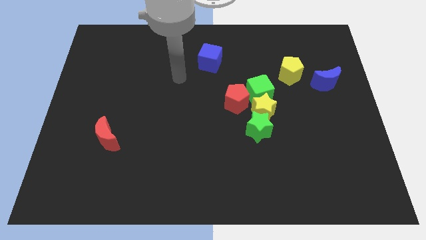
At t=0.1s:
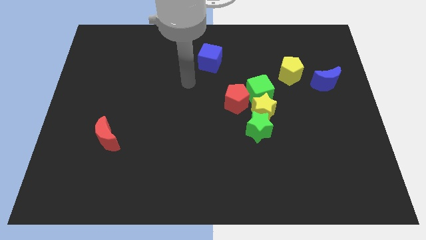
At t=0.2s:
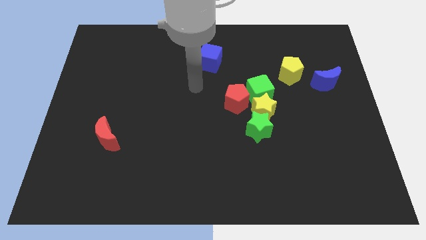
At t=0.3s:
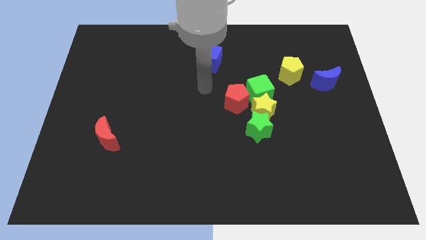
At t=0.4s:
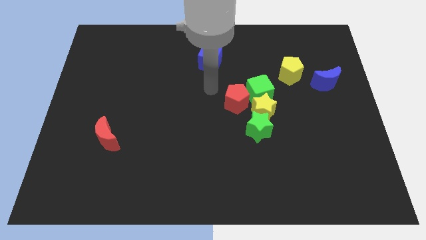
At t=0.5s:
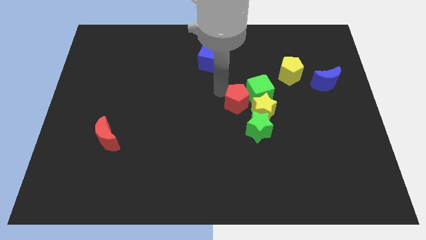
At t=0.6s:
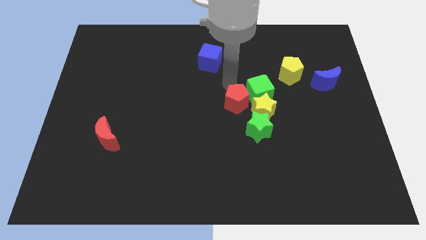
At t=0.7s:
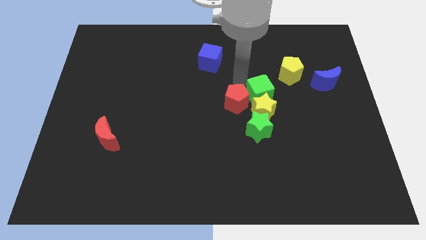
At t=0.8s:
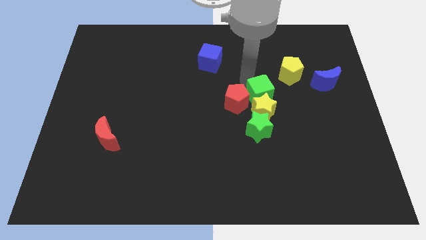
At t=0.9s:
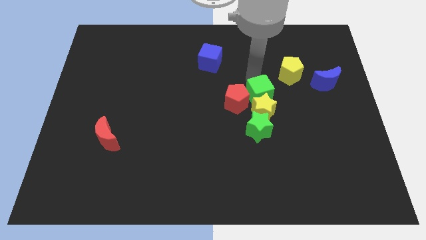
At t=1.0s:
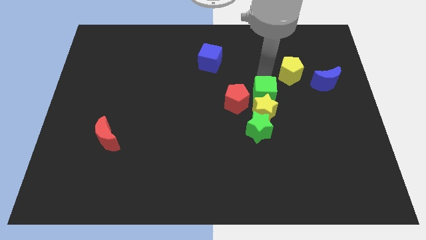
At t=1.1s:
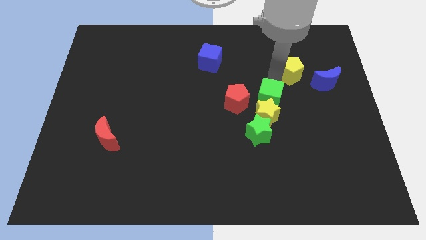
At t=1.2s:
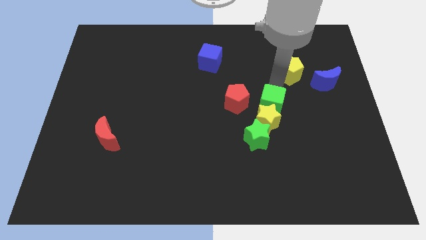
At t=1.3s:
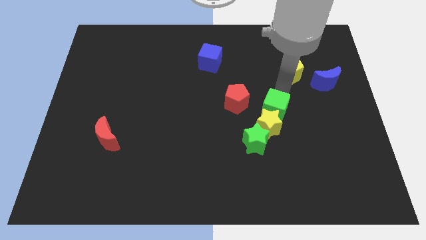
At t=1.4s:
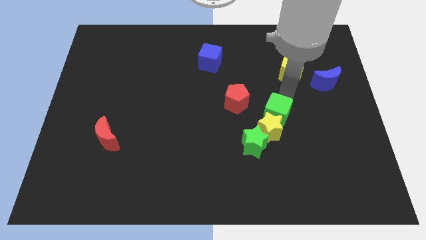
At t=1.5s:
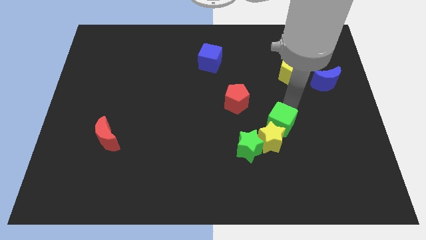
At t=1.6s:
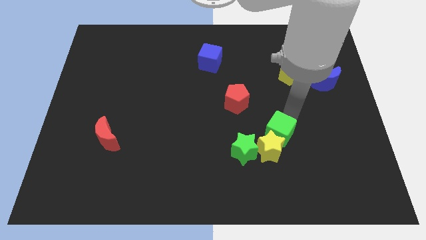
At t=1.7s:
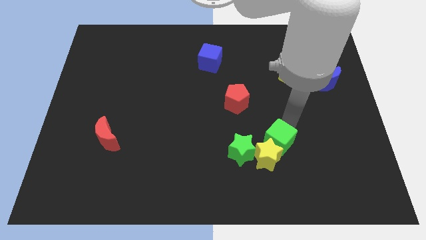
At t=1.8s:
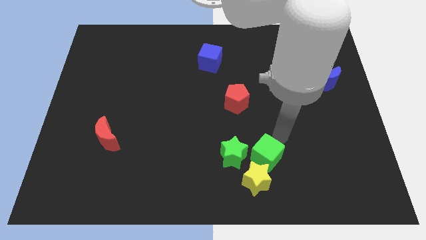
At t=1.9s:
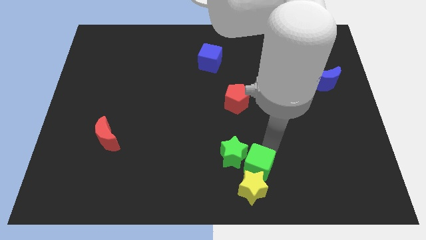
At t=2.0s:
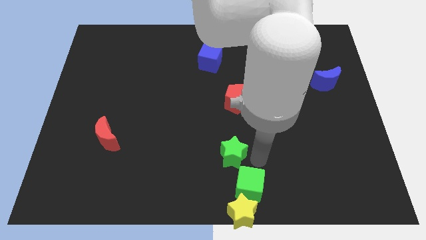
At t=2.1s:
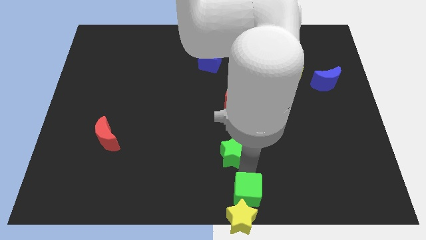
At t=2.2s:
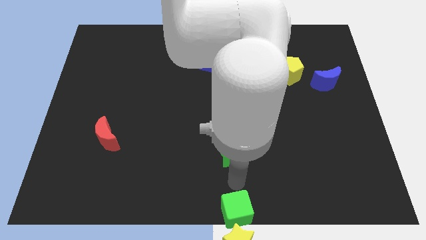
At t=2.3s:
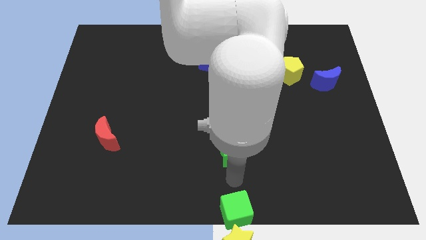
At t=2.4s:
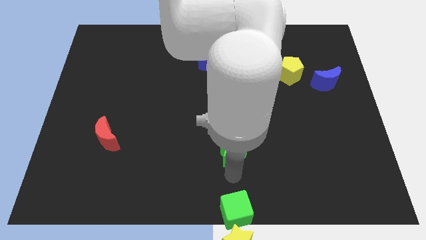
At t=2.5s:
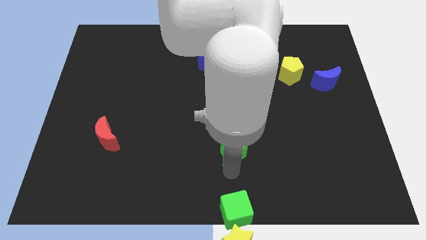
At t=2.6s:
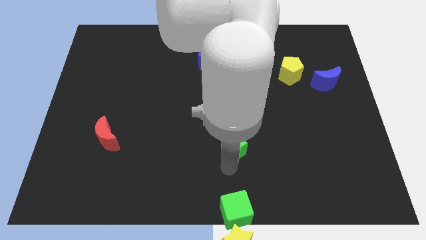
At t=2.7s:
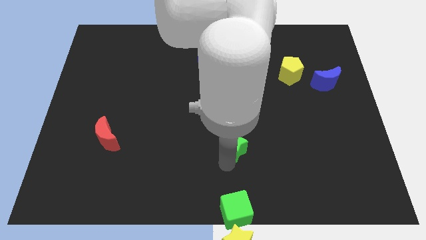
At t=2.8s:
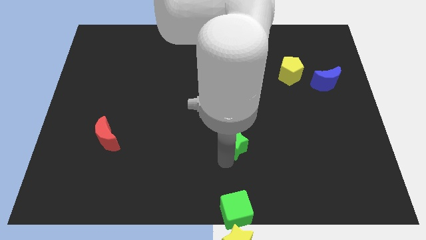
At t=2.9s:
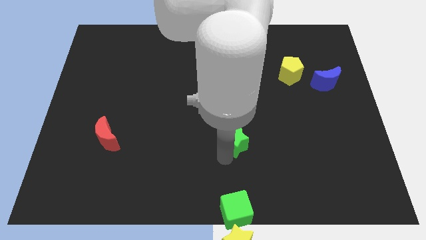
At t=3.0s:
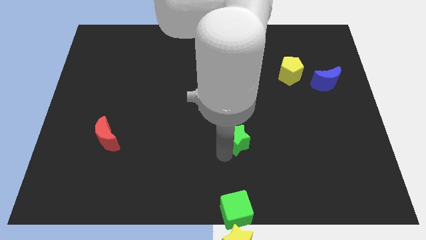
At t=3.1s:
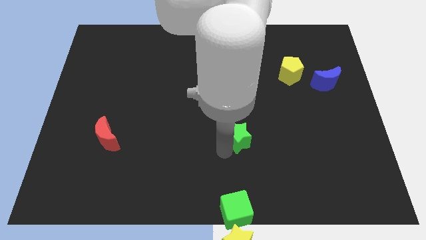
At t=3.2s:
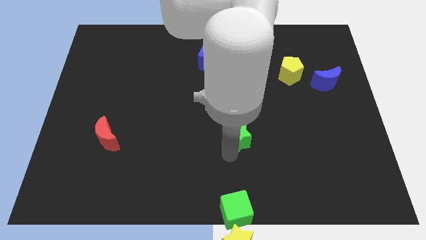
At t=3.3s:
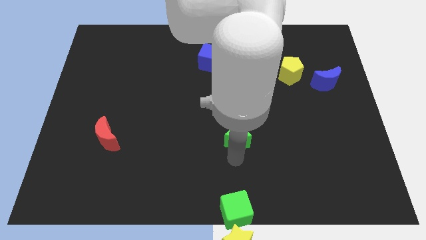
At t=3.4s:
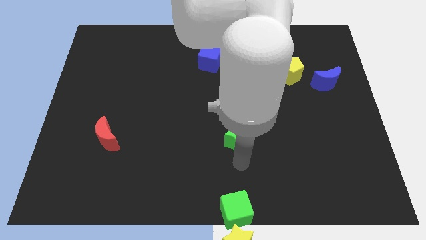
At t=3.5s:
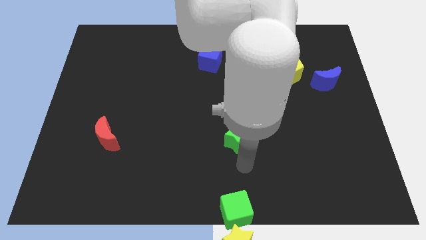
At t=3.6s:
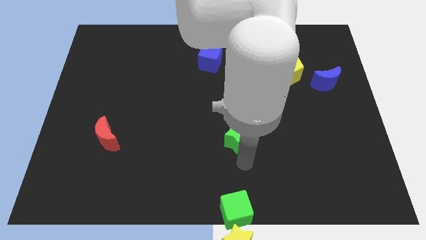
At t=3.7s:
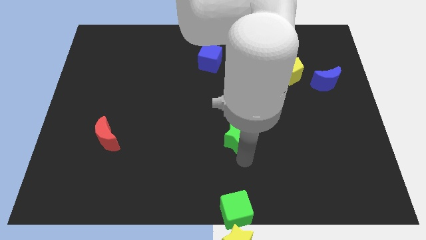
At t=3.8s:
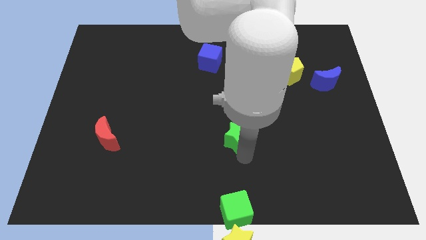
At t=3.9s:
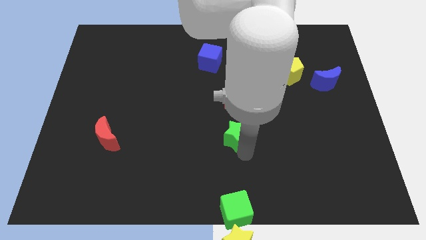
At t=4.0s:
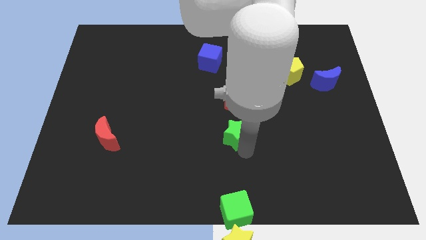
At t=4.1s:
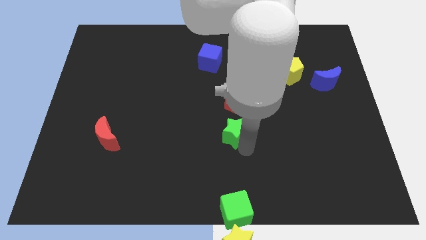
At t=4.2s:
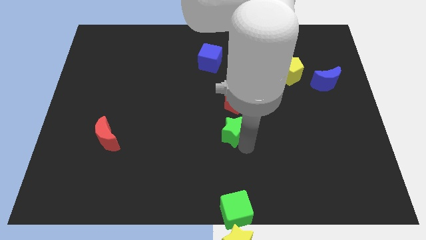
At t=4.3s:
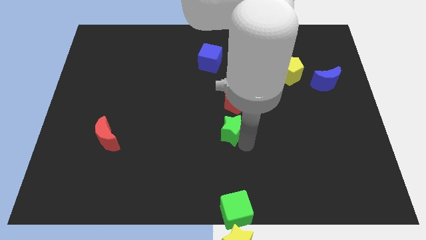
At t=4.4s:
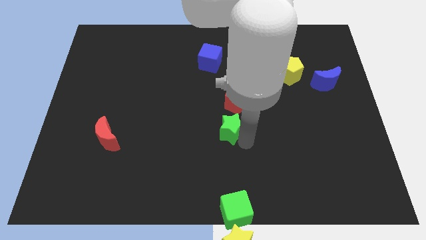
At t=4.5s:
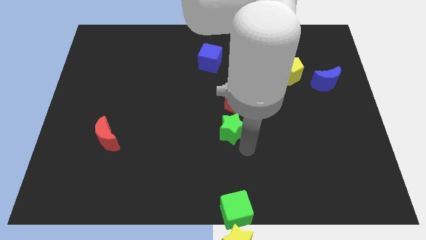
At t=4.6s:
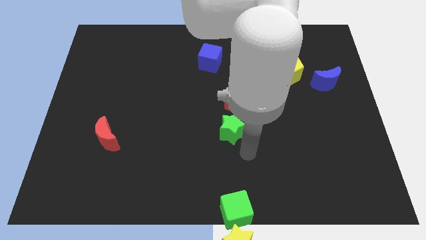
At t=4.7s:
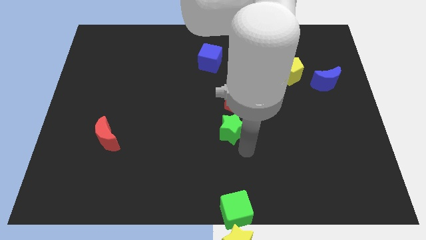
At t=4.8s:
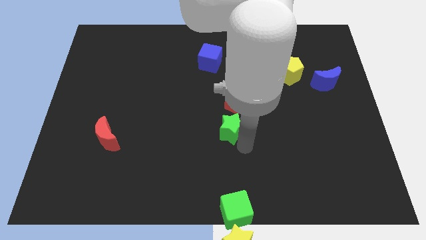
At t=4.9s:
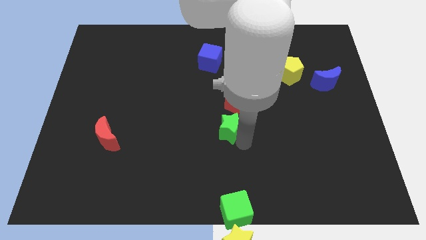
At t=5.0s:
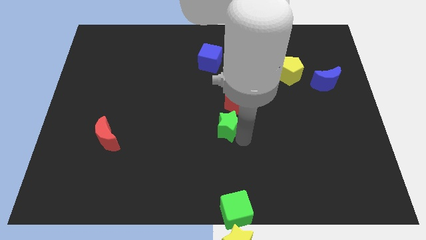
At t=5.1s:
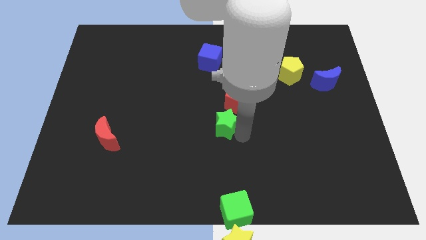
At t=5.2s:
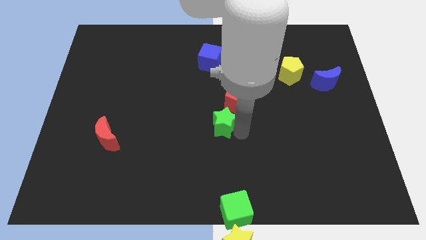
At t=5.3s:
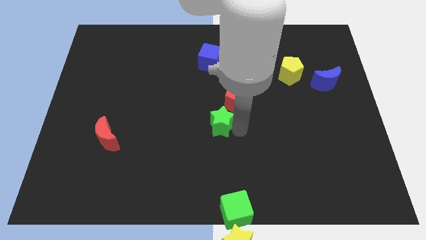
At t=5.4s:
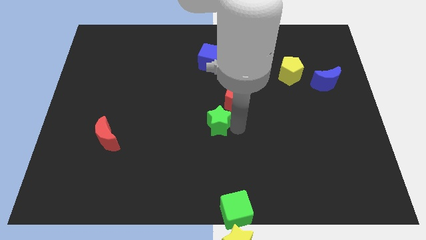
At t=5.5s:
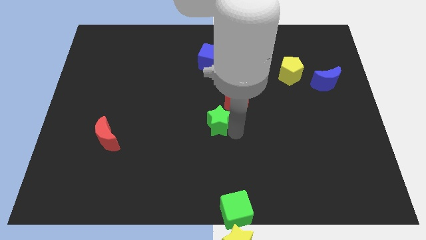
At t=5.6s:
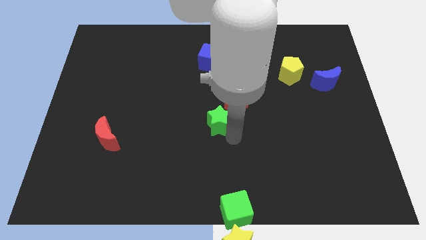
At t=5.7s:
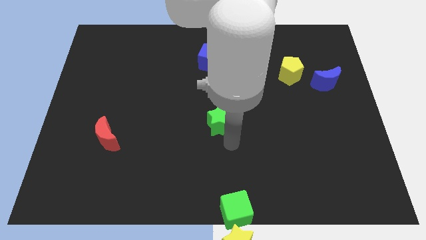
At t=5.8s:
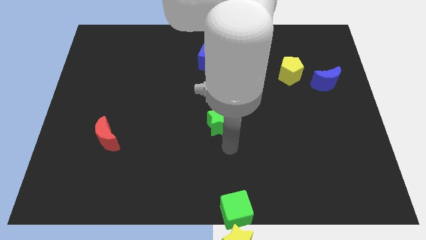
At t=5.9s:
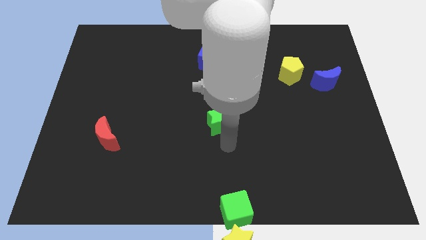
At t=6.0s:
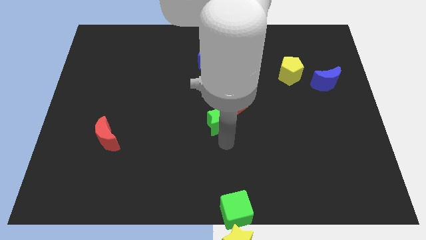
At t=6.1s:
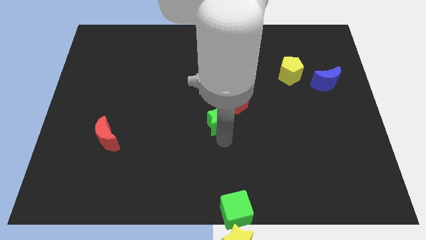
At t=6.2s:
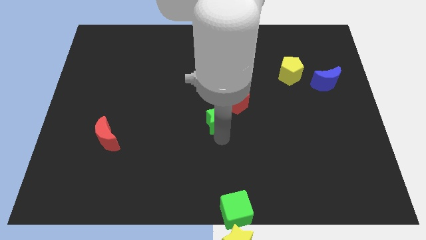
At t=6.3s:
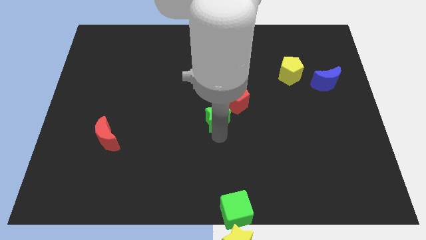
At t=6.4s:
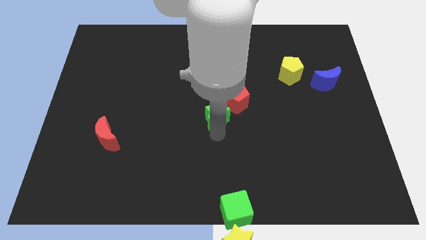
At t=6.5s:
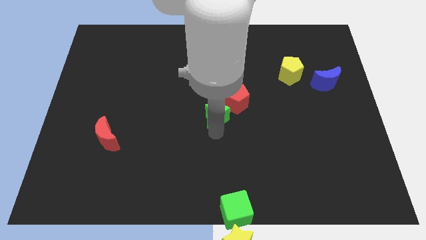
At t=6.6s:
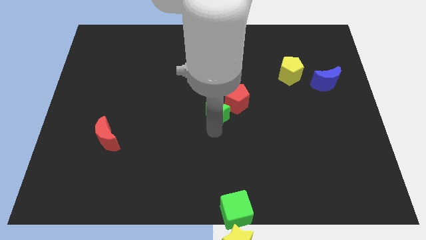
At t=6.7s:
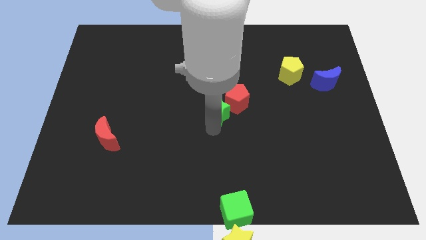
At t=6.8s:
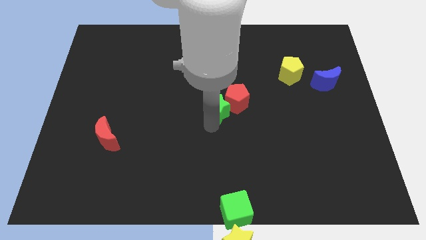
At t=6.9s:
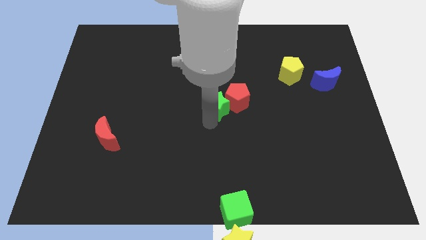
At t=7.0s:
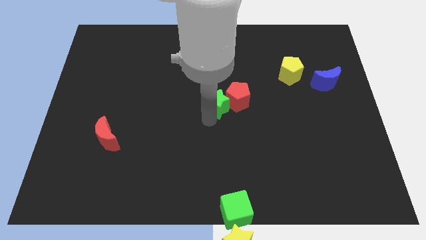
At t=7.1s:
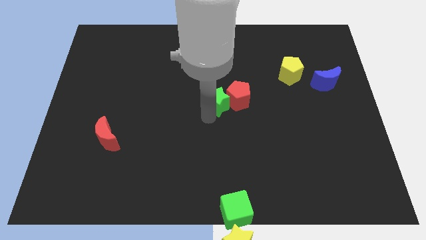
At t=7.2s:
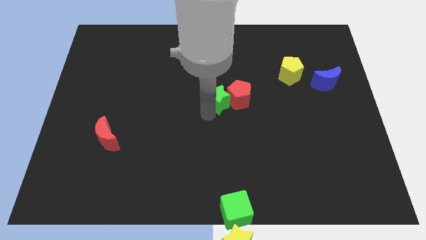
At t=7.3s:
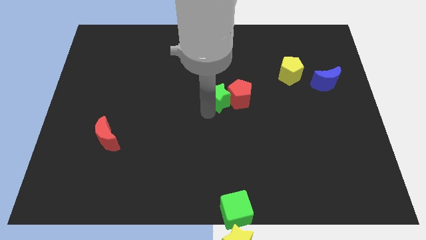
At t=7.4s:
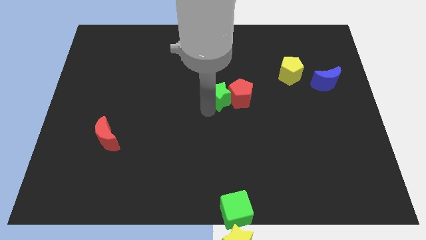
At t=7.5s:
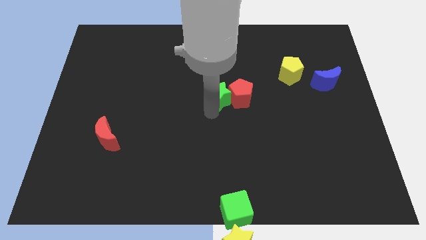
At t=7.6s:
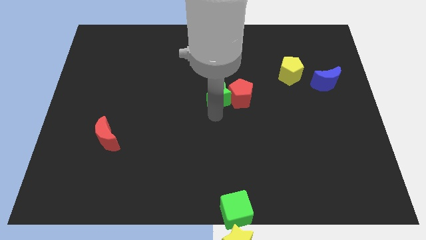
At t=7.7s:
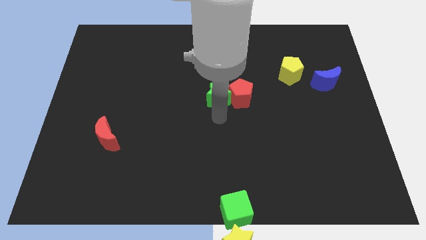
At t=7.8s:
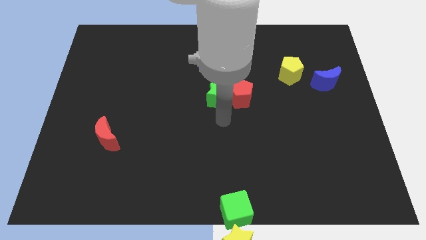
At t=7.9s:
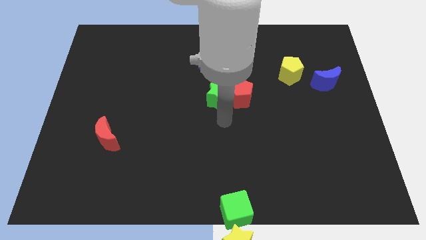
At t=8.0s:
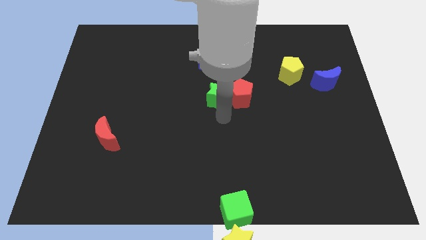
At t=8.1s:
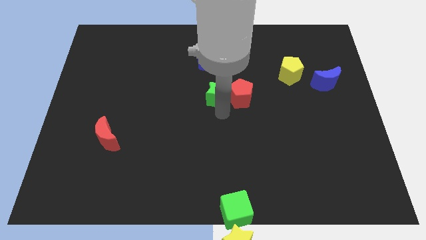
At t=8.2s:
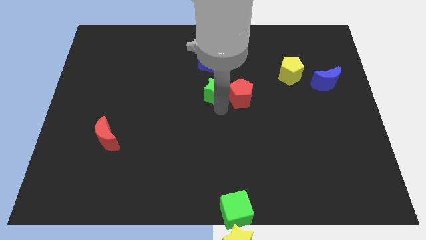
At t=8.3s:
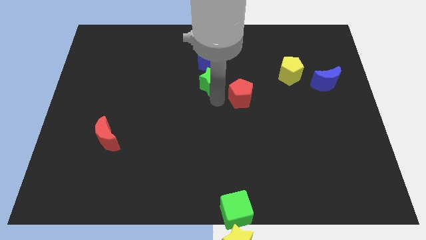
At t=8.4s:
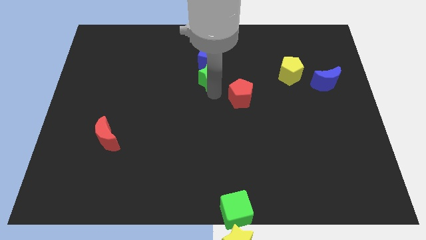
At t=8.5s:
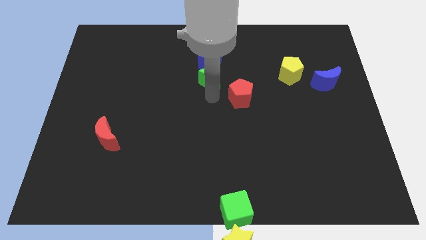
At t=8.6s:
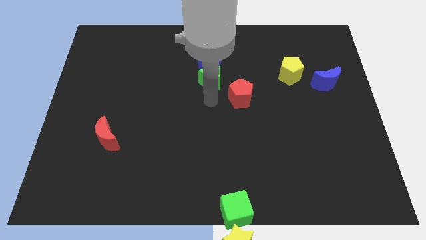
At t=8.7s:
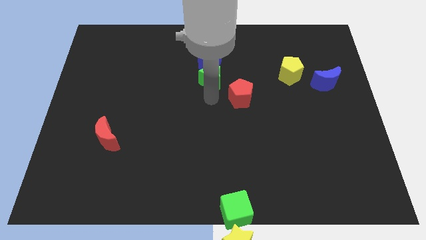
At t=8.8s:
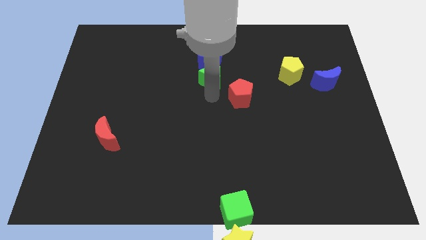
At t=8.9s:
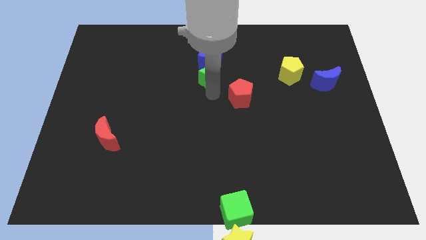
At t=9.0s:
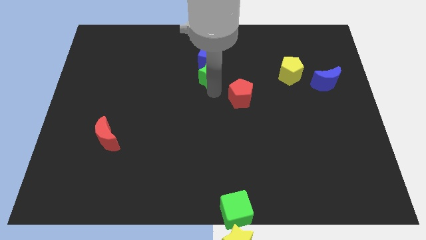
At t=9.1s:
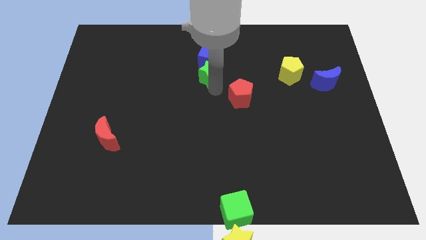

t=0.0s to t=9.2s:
slide the green star close to the blue cube
